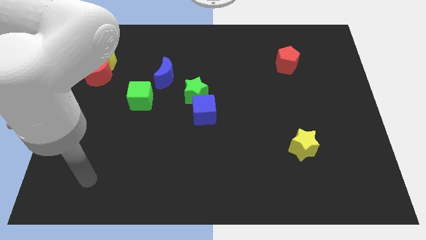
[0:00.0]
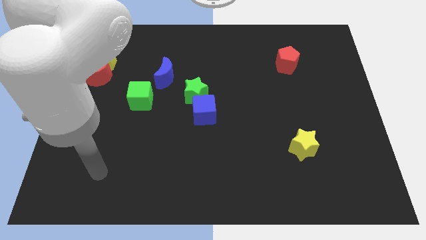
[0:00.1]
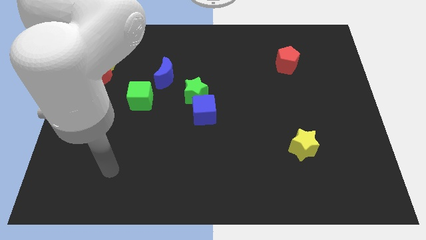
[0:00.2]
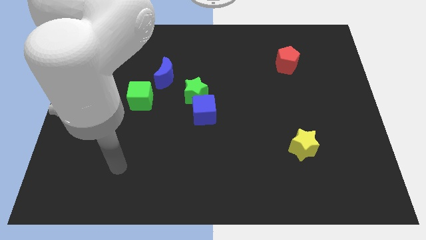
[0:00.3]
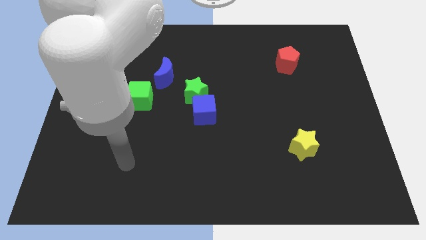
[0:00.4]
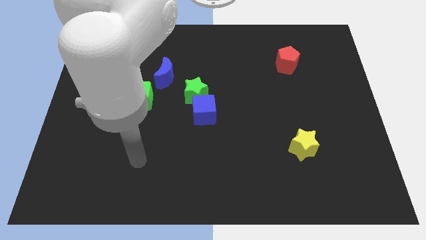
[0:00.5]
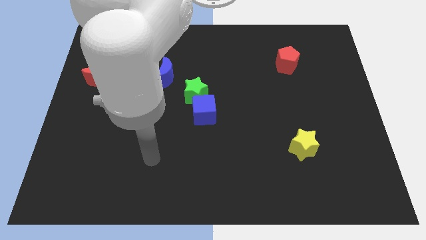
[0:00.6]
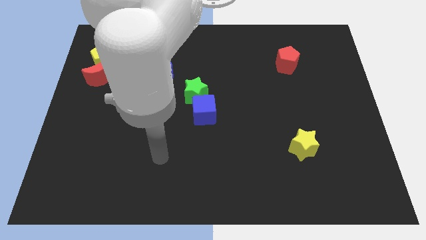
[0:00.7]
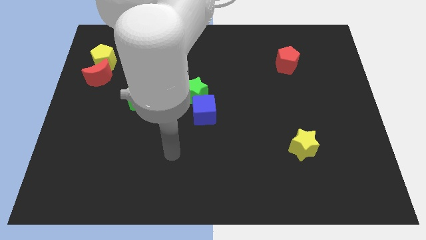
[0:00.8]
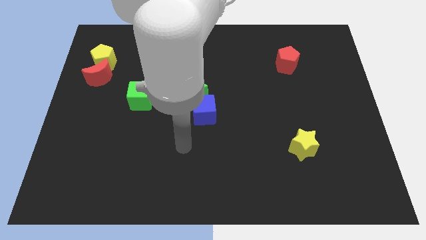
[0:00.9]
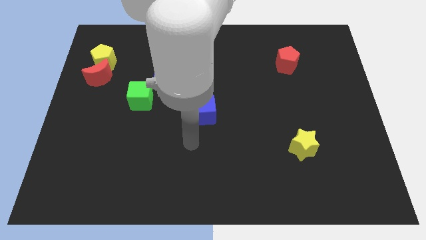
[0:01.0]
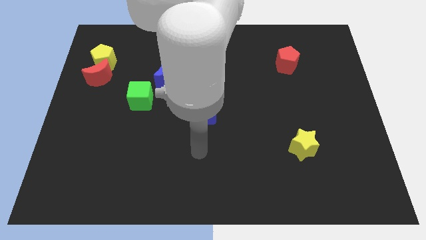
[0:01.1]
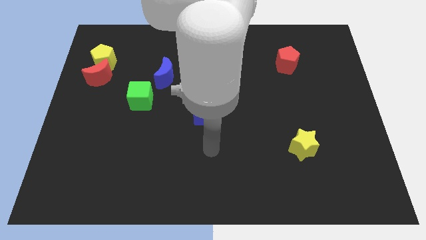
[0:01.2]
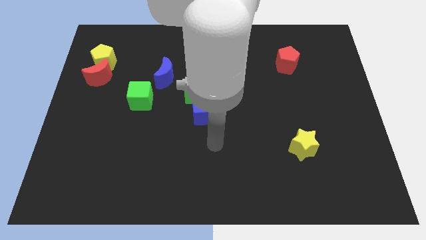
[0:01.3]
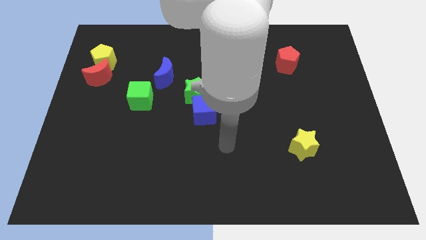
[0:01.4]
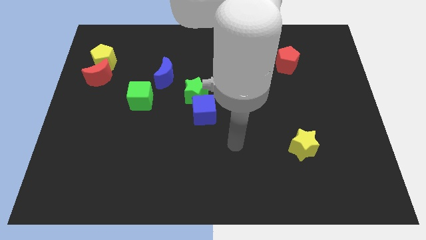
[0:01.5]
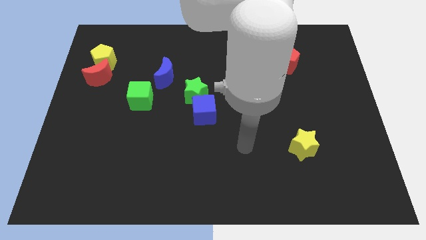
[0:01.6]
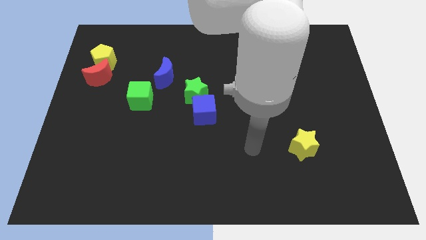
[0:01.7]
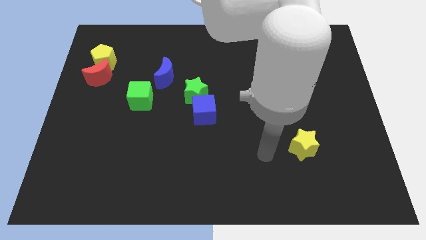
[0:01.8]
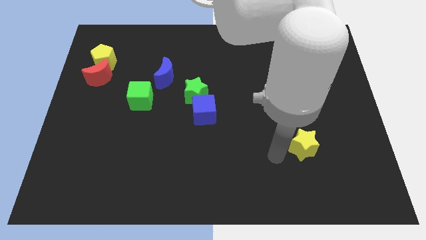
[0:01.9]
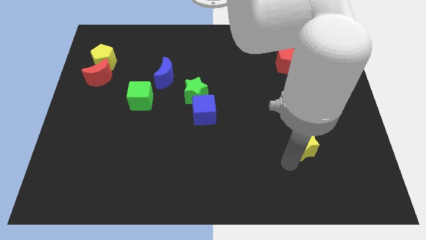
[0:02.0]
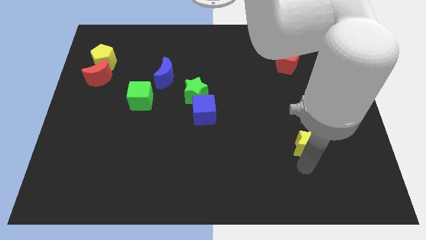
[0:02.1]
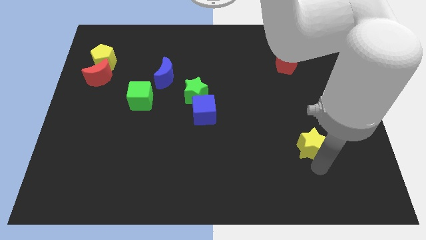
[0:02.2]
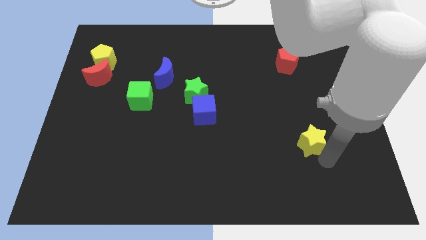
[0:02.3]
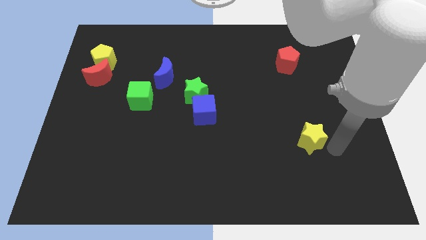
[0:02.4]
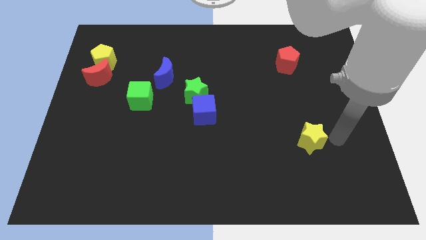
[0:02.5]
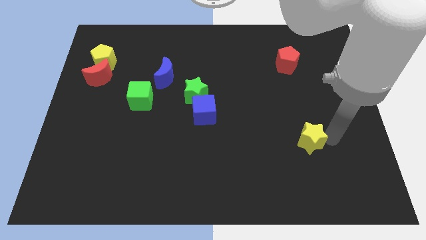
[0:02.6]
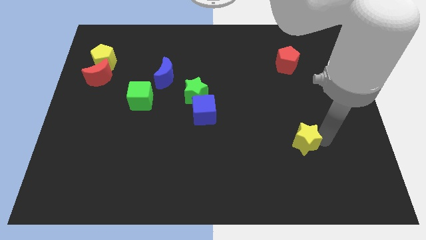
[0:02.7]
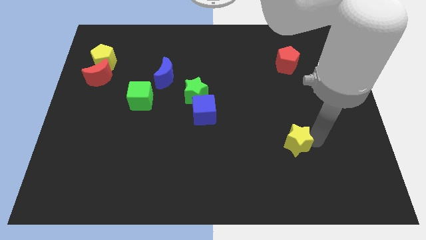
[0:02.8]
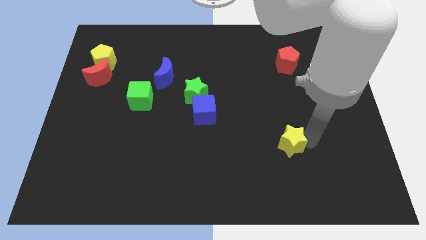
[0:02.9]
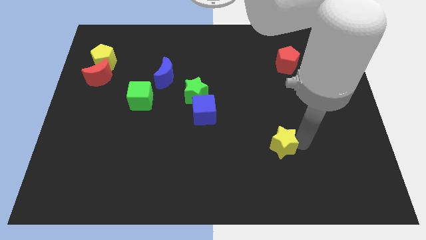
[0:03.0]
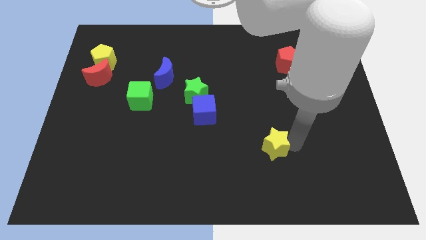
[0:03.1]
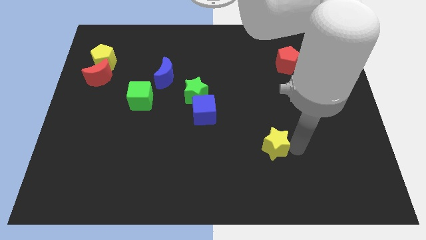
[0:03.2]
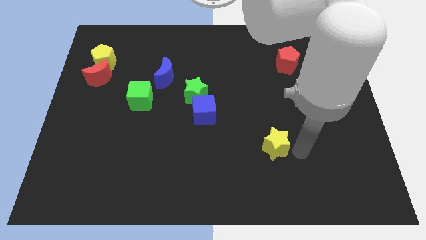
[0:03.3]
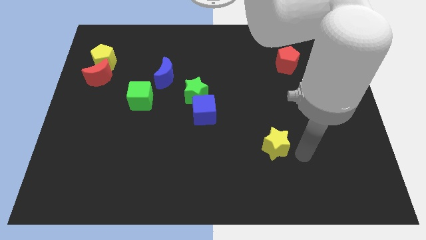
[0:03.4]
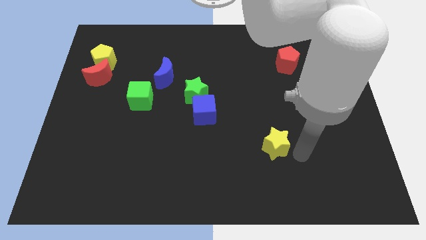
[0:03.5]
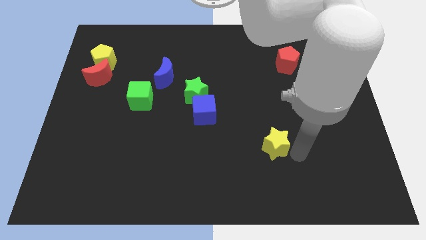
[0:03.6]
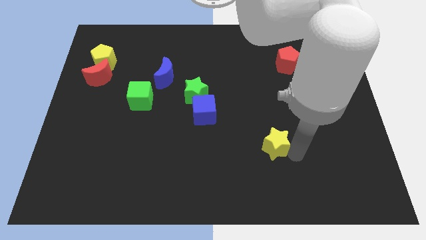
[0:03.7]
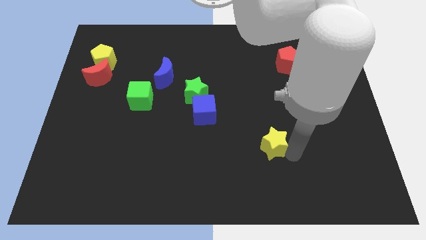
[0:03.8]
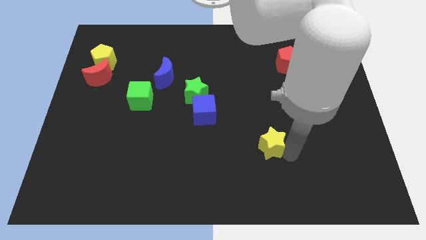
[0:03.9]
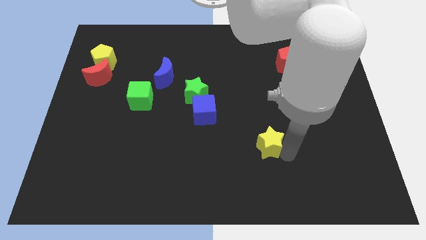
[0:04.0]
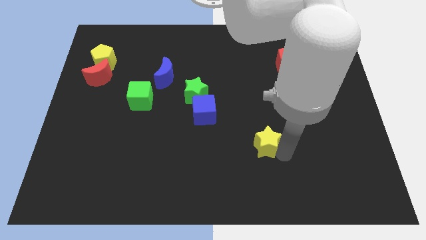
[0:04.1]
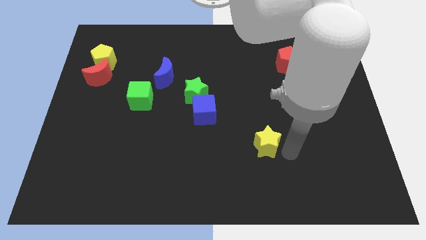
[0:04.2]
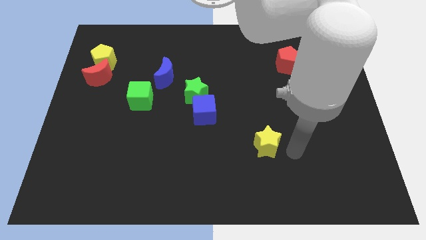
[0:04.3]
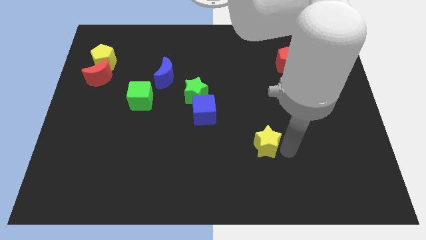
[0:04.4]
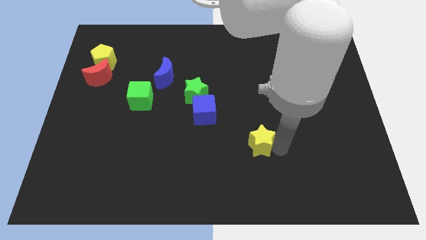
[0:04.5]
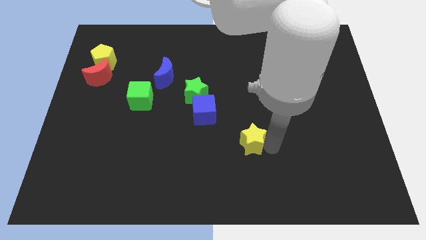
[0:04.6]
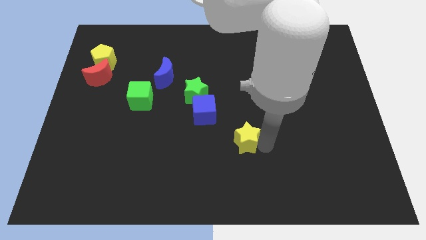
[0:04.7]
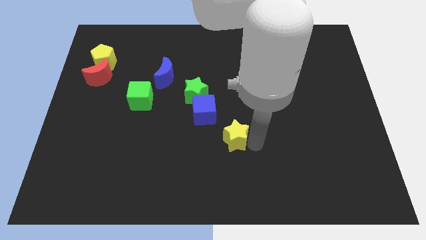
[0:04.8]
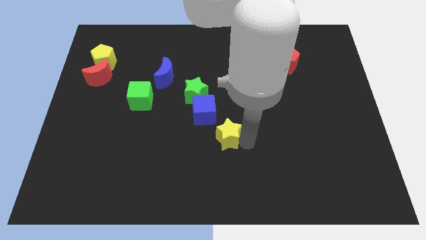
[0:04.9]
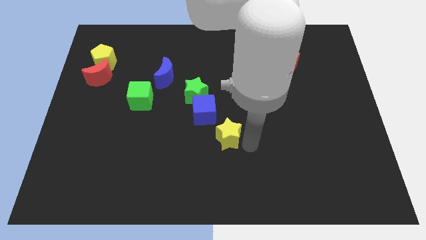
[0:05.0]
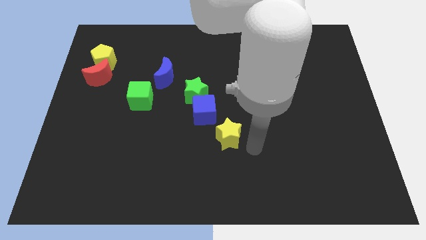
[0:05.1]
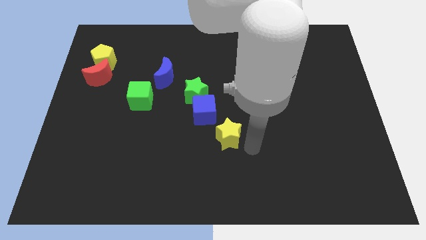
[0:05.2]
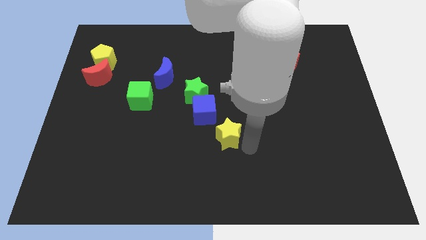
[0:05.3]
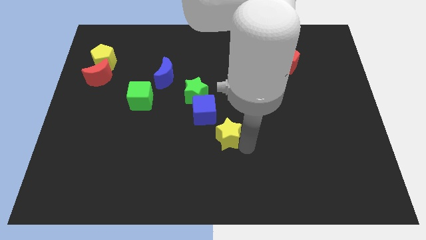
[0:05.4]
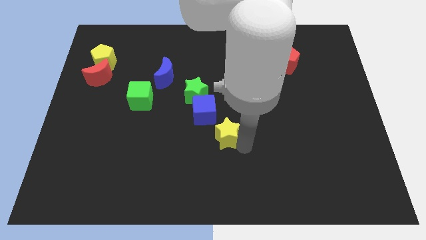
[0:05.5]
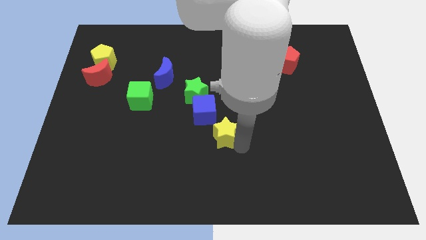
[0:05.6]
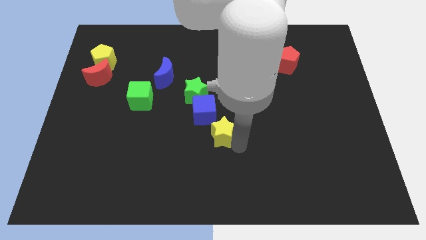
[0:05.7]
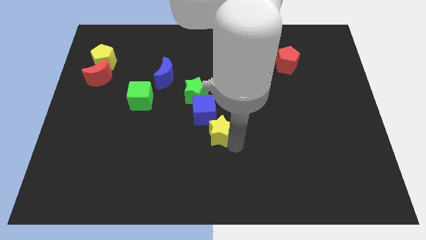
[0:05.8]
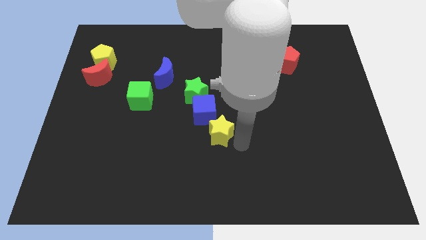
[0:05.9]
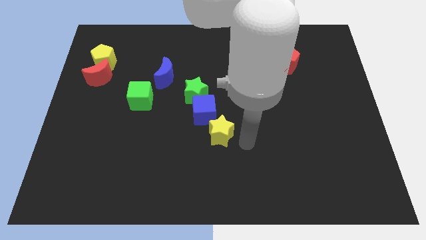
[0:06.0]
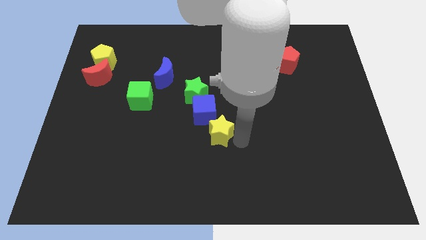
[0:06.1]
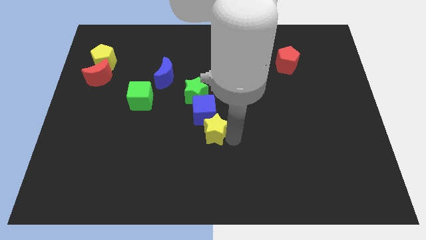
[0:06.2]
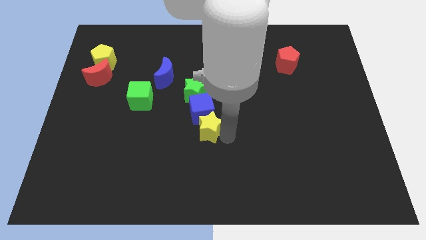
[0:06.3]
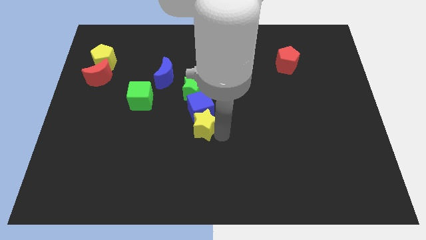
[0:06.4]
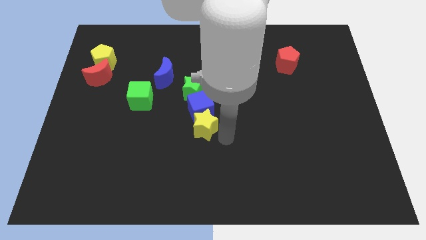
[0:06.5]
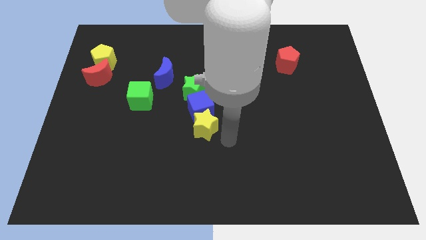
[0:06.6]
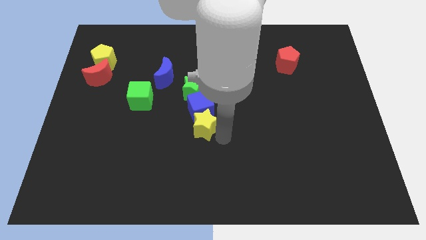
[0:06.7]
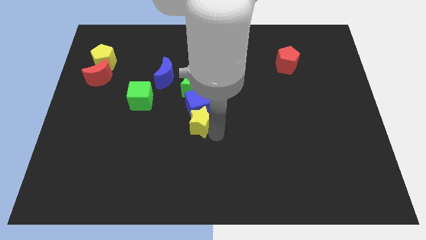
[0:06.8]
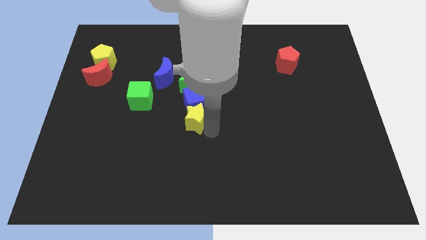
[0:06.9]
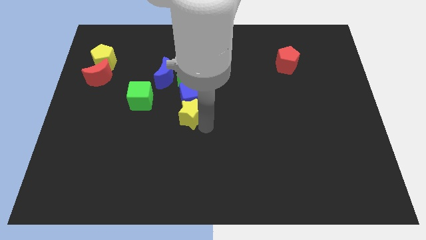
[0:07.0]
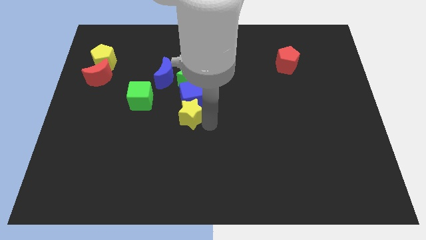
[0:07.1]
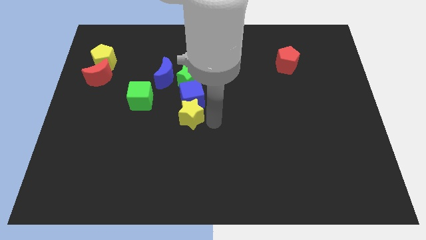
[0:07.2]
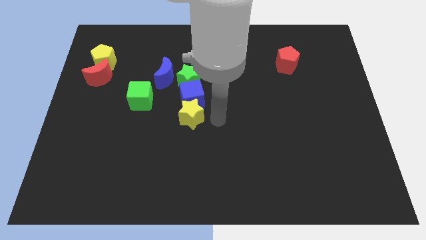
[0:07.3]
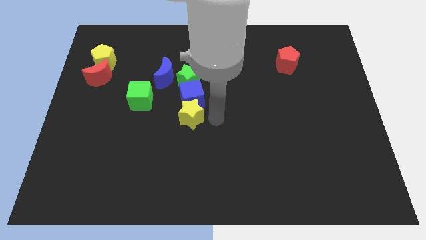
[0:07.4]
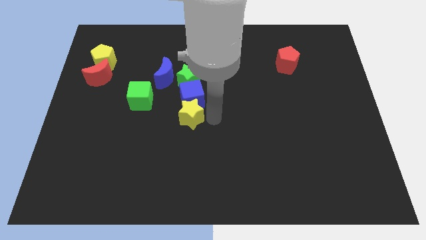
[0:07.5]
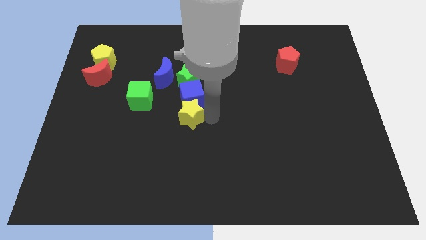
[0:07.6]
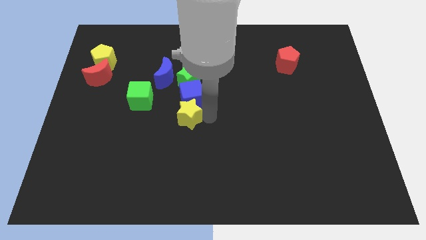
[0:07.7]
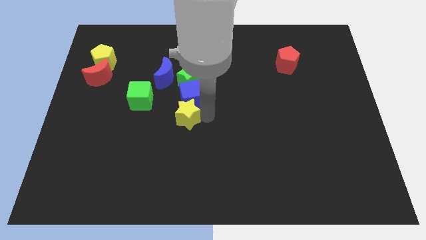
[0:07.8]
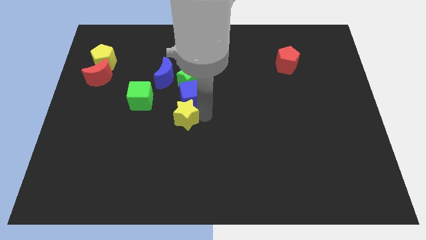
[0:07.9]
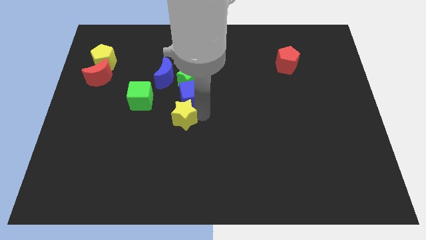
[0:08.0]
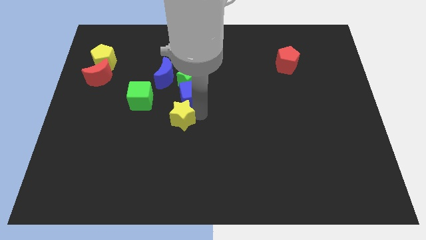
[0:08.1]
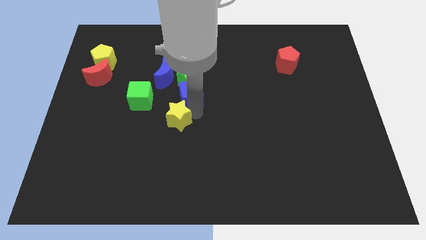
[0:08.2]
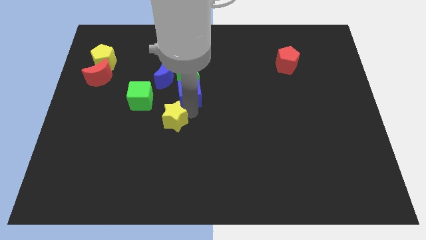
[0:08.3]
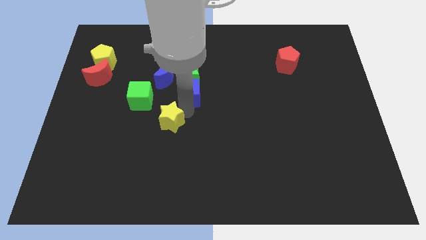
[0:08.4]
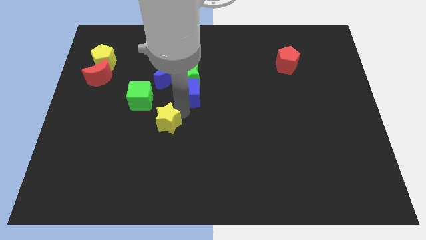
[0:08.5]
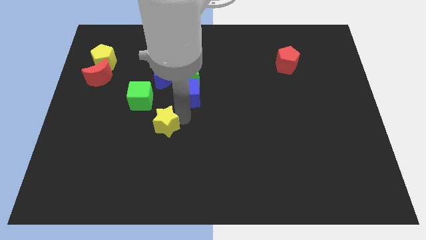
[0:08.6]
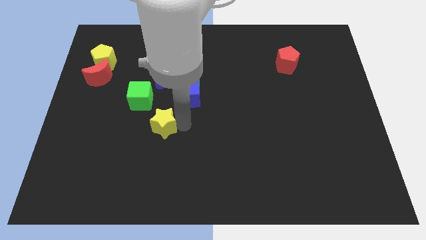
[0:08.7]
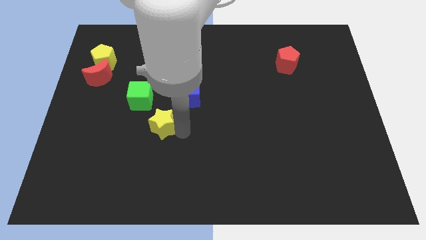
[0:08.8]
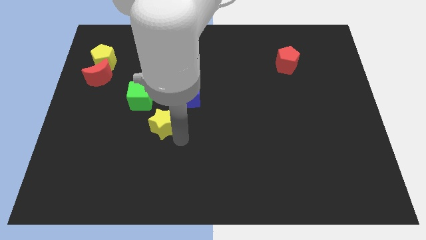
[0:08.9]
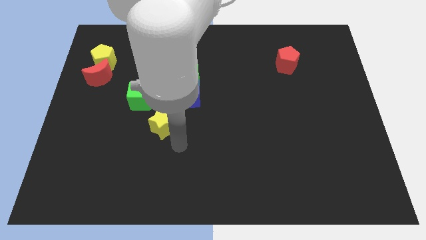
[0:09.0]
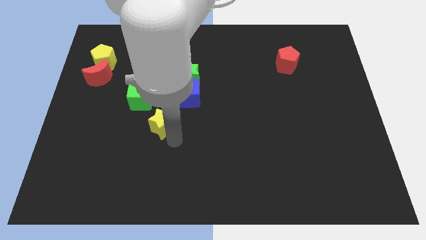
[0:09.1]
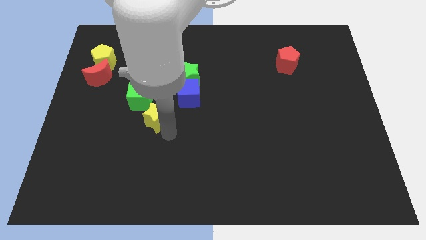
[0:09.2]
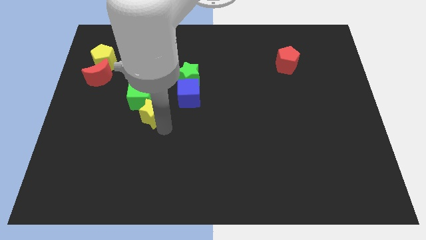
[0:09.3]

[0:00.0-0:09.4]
move the yellow star close to the green cube
